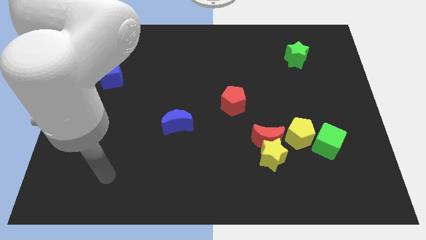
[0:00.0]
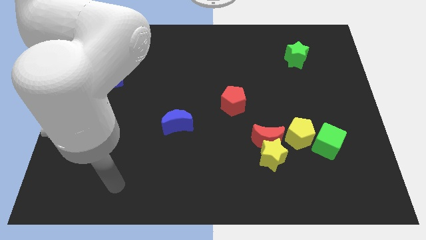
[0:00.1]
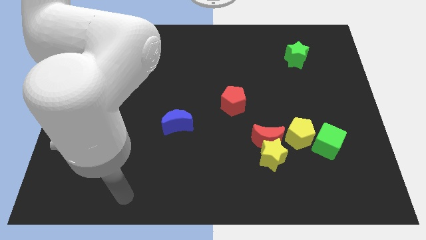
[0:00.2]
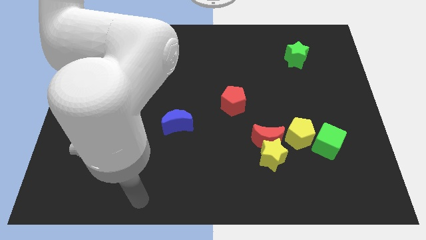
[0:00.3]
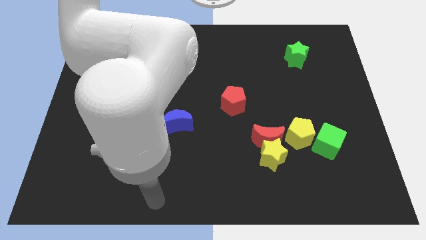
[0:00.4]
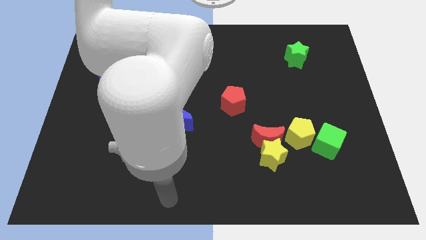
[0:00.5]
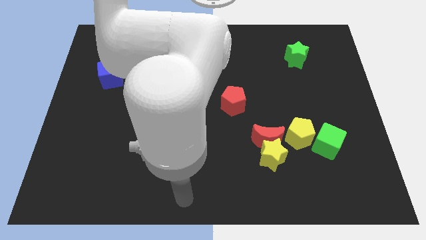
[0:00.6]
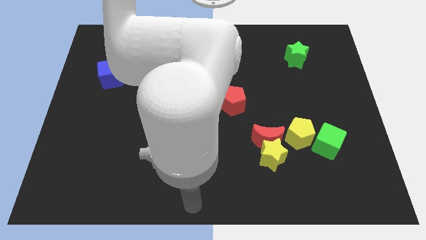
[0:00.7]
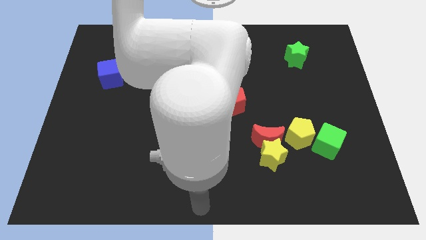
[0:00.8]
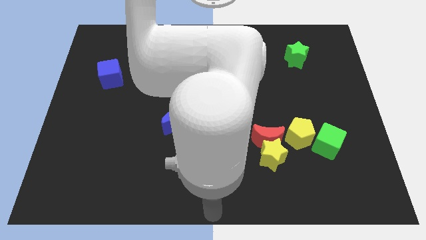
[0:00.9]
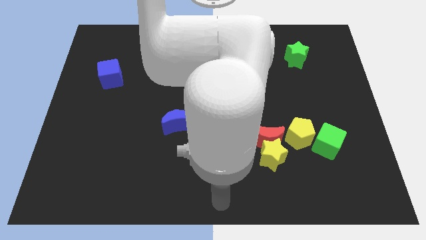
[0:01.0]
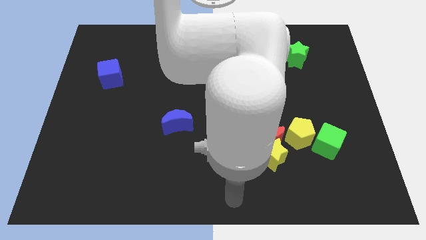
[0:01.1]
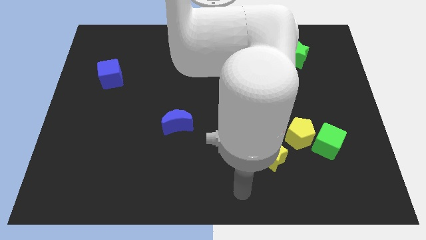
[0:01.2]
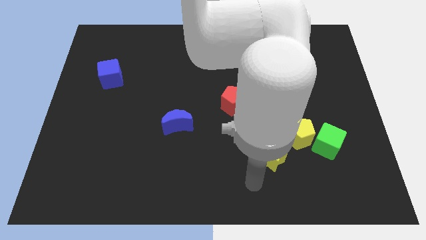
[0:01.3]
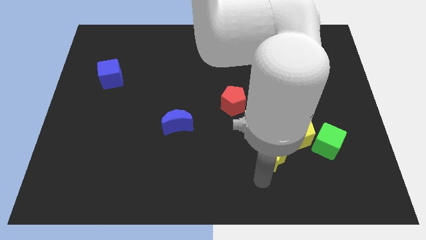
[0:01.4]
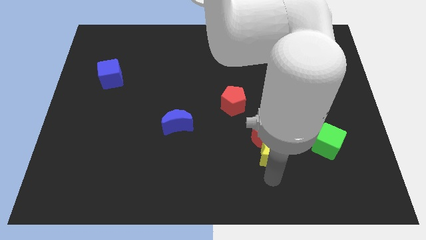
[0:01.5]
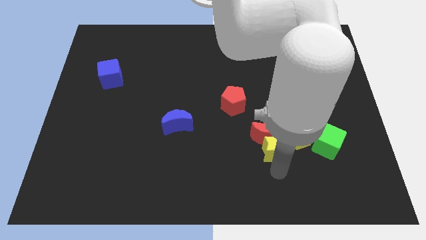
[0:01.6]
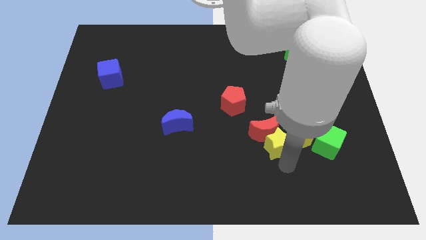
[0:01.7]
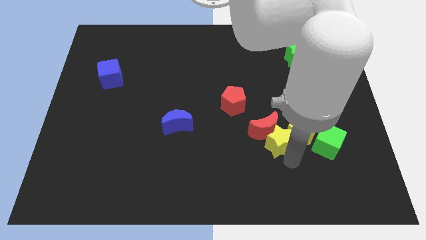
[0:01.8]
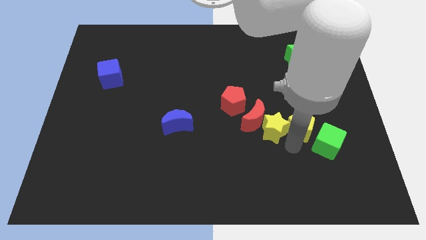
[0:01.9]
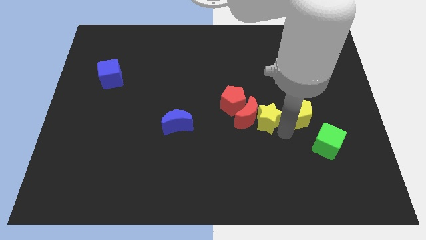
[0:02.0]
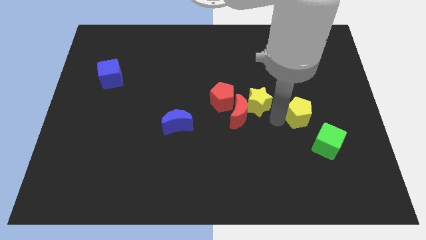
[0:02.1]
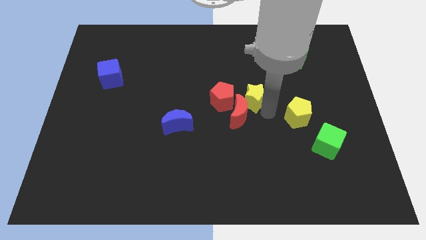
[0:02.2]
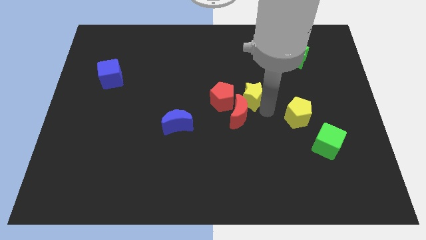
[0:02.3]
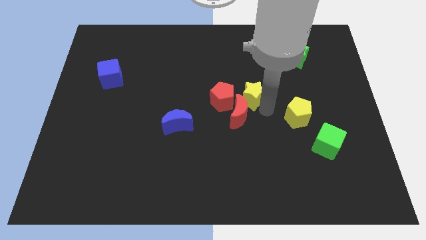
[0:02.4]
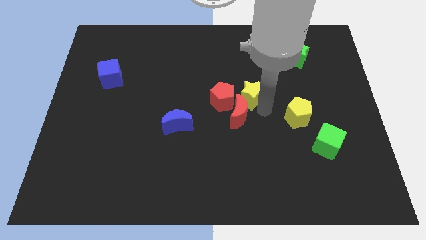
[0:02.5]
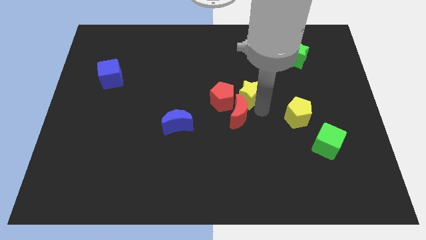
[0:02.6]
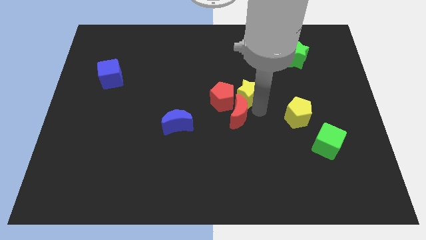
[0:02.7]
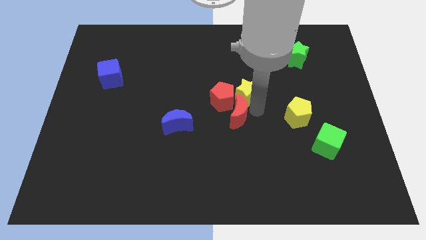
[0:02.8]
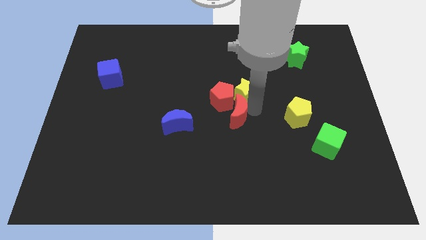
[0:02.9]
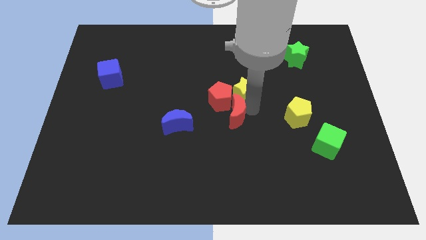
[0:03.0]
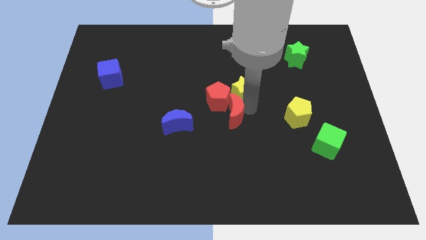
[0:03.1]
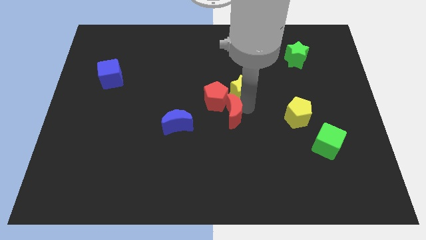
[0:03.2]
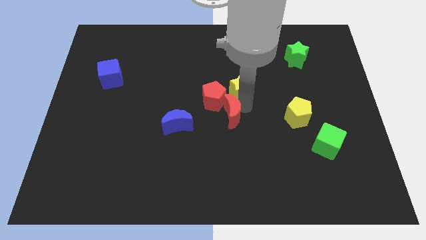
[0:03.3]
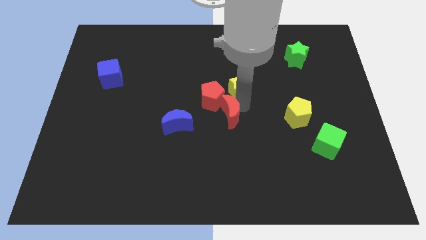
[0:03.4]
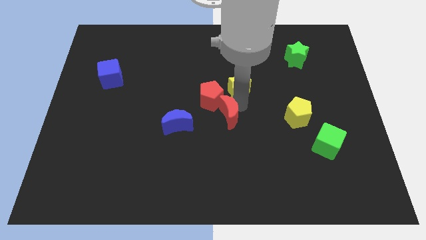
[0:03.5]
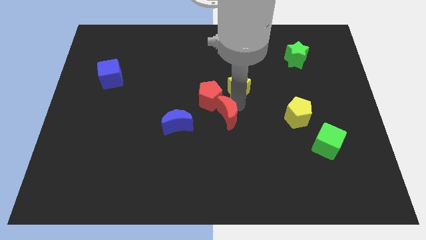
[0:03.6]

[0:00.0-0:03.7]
separate the red moon from the yellow star and yellow pentagon

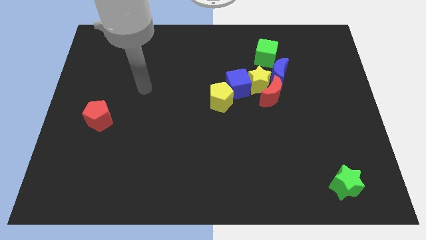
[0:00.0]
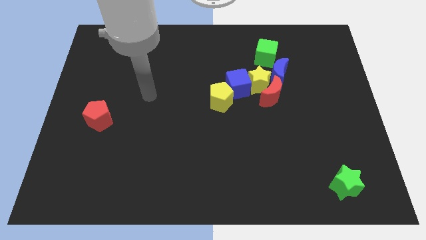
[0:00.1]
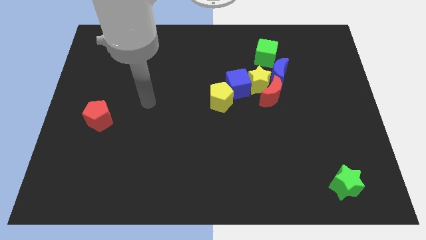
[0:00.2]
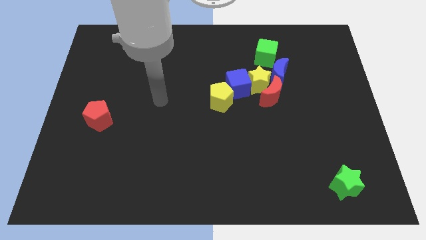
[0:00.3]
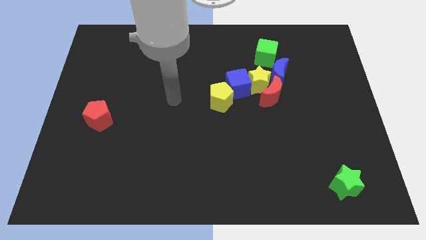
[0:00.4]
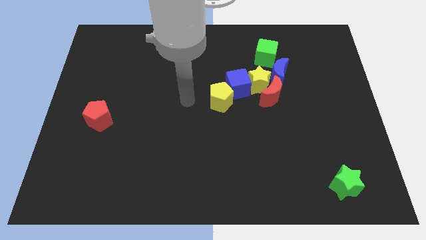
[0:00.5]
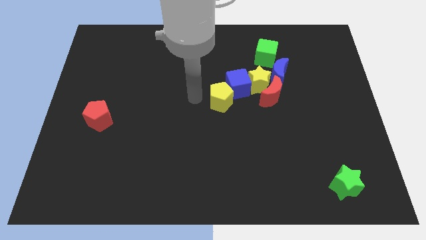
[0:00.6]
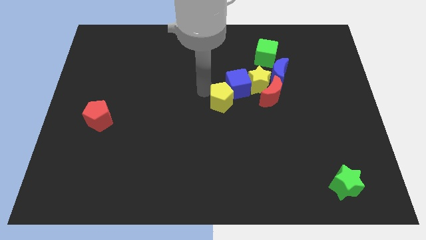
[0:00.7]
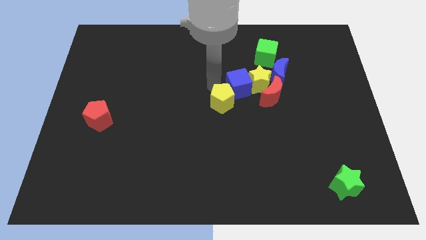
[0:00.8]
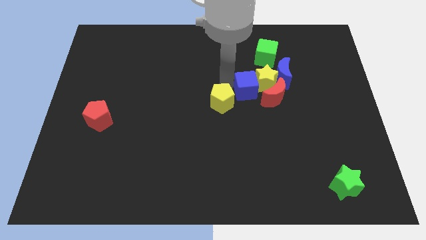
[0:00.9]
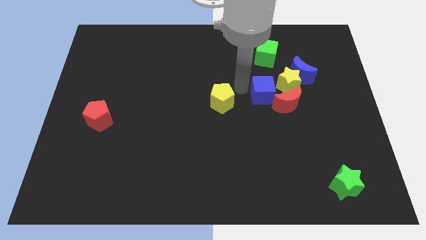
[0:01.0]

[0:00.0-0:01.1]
move the yellow pentagon away from the blue cube

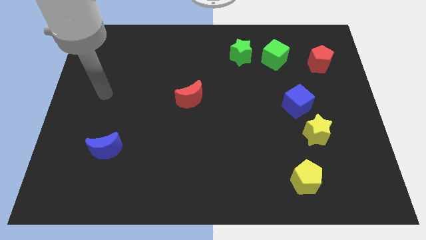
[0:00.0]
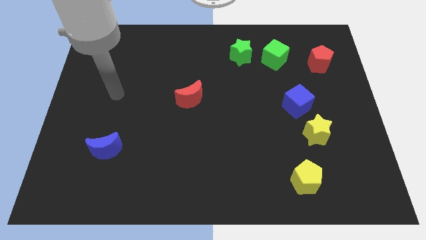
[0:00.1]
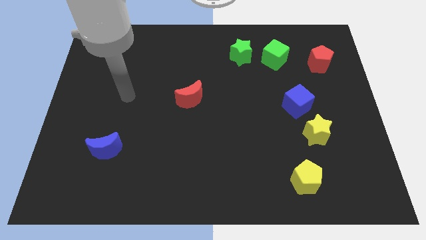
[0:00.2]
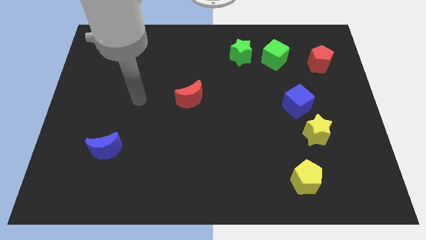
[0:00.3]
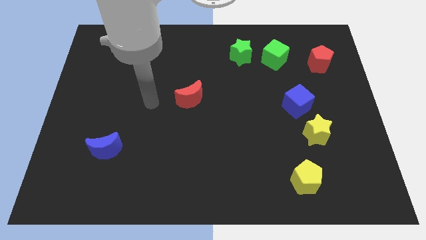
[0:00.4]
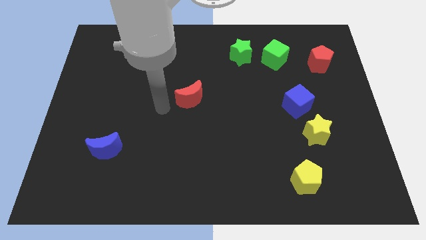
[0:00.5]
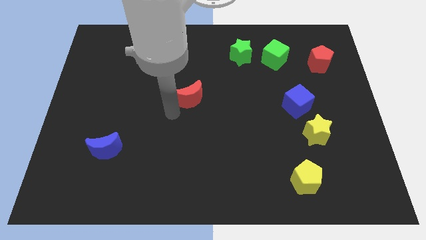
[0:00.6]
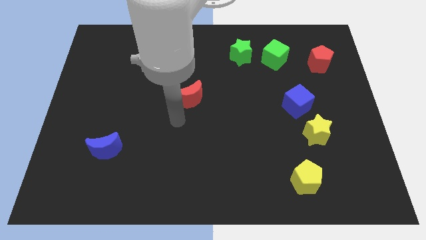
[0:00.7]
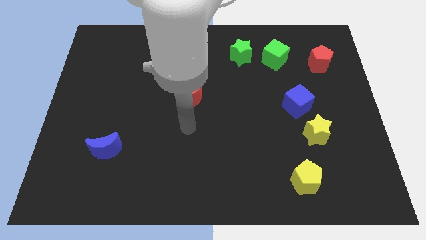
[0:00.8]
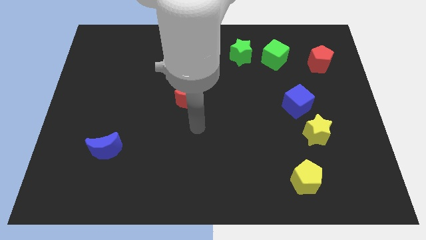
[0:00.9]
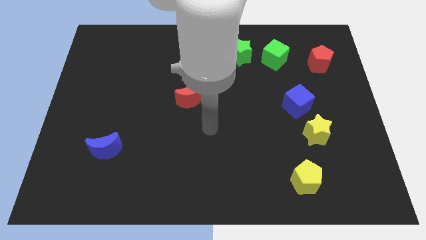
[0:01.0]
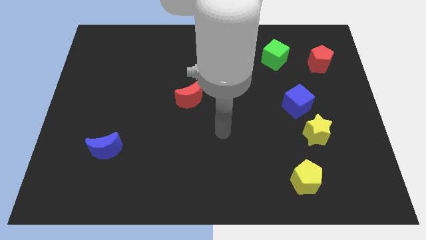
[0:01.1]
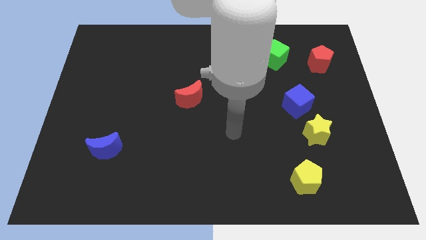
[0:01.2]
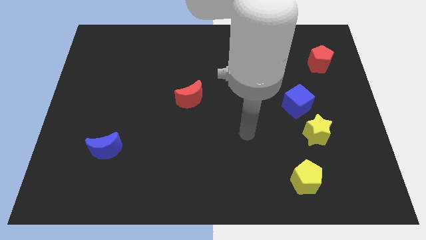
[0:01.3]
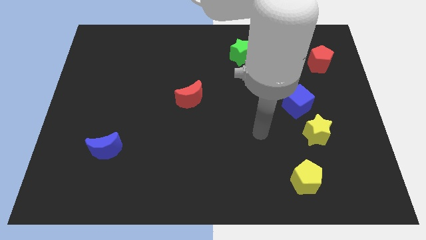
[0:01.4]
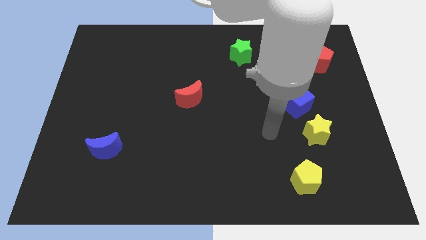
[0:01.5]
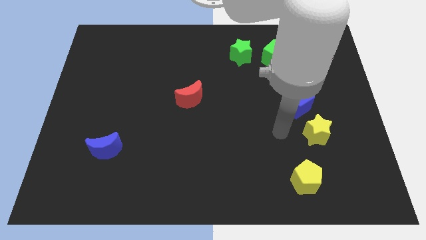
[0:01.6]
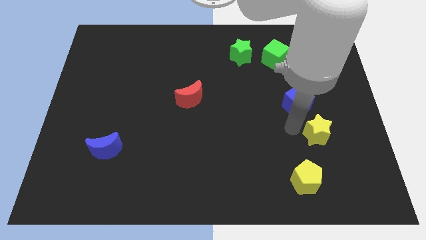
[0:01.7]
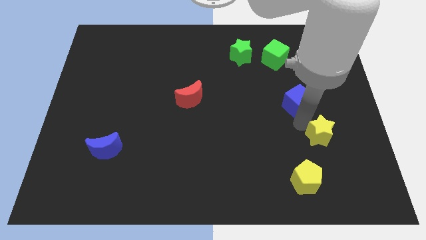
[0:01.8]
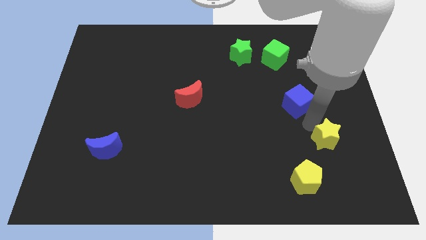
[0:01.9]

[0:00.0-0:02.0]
separate the blue cube from the yellow star

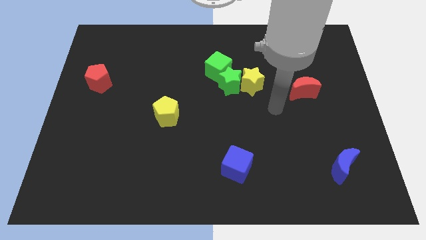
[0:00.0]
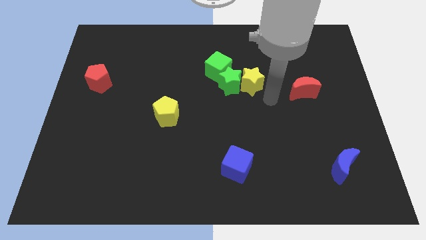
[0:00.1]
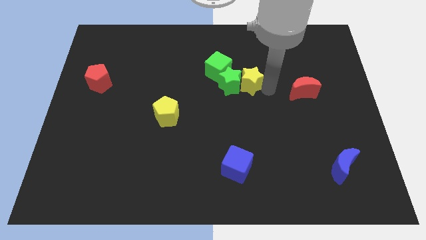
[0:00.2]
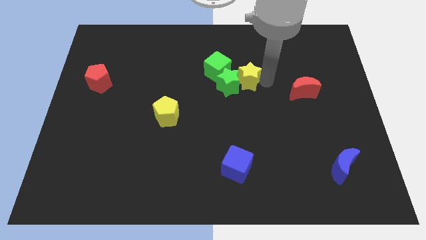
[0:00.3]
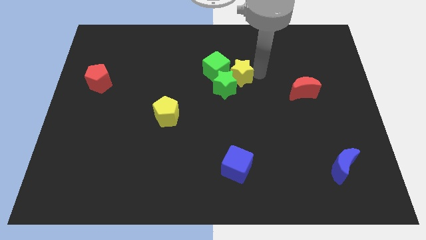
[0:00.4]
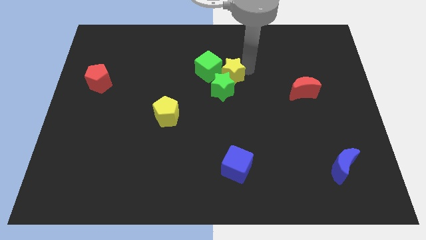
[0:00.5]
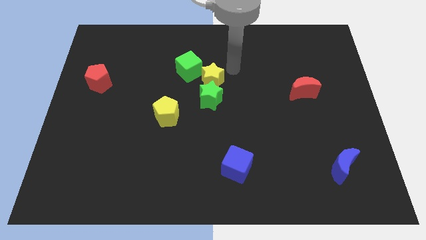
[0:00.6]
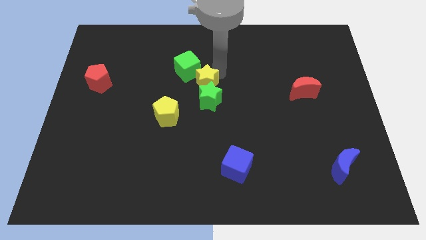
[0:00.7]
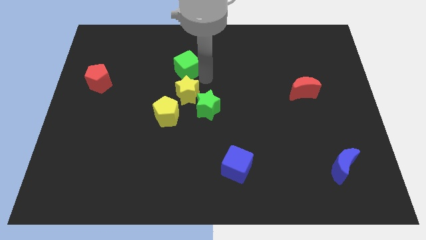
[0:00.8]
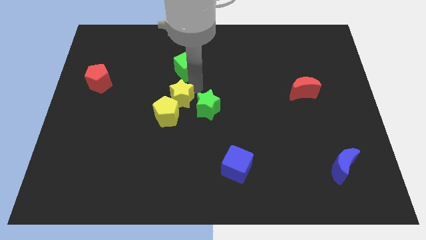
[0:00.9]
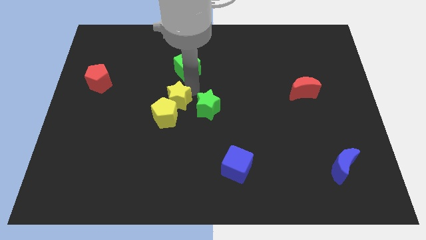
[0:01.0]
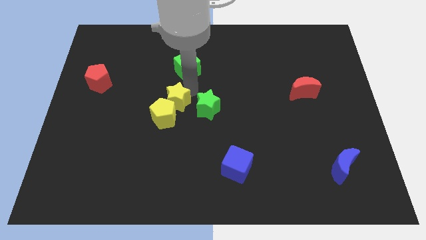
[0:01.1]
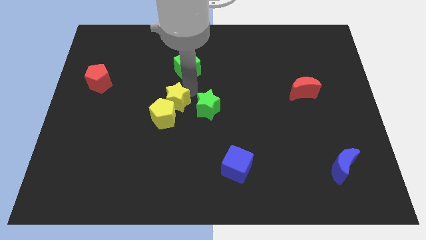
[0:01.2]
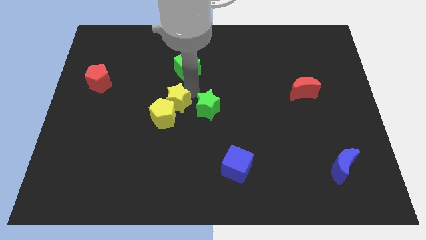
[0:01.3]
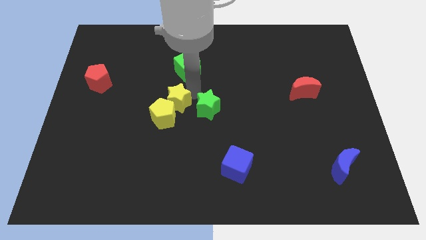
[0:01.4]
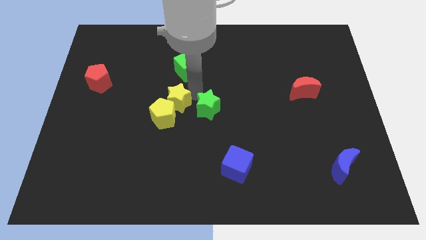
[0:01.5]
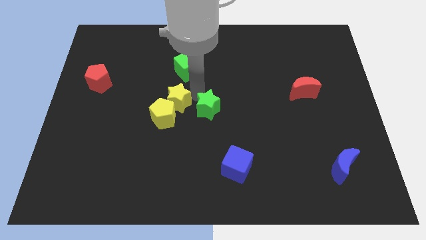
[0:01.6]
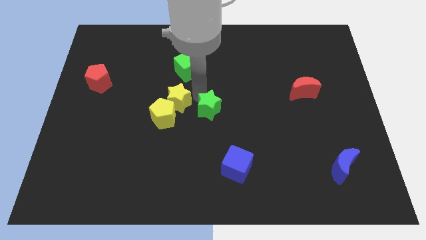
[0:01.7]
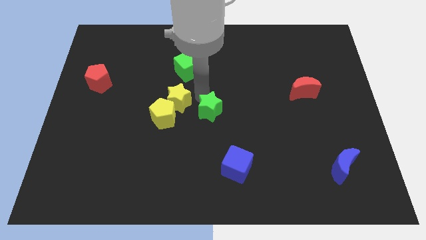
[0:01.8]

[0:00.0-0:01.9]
separate the green star from the yellow star and green cube

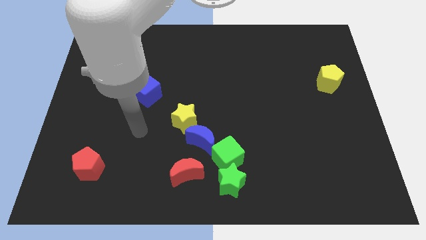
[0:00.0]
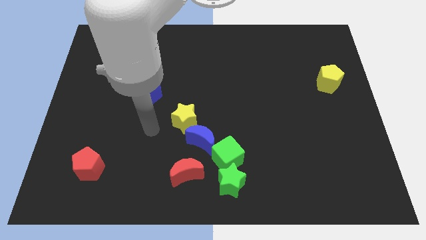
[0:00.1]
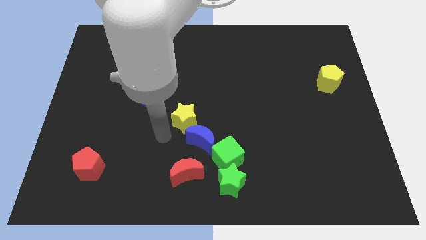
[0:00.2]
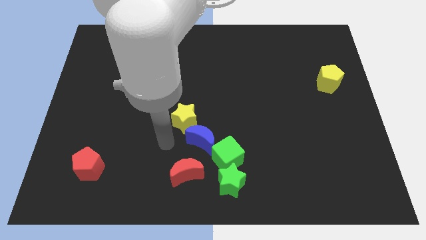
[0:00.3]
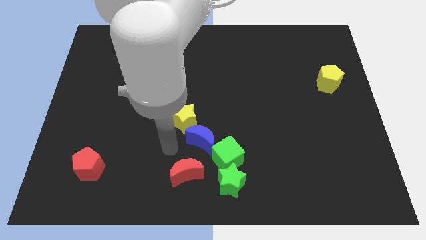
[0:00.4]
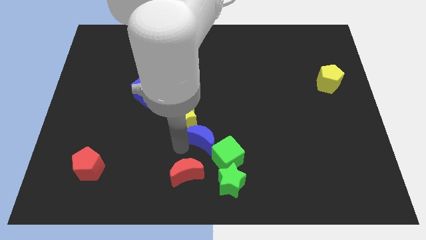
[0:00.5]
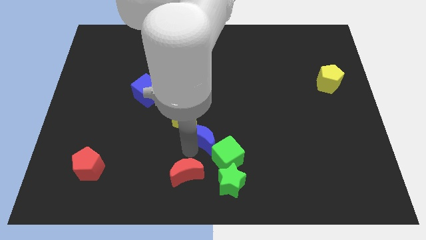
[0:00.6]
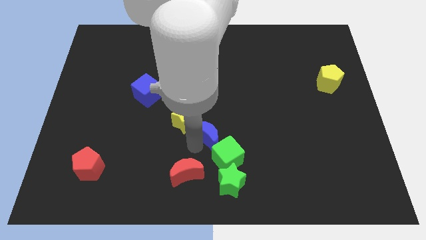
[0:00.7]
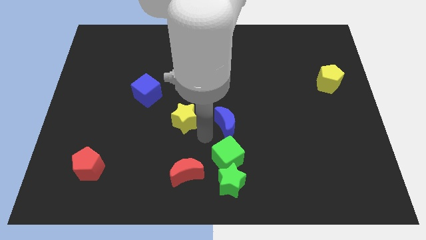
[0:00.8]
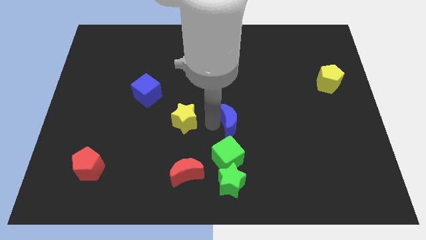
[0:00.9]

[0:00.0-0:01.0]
move the yellow star away from the blue moon
